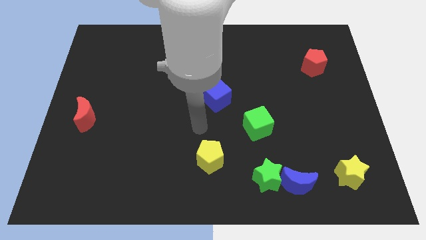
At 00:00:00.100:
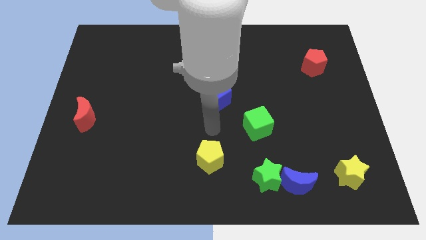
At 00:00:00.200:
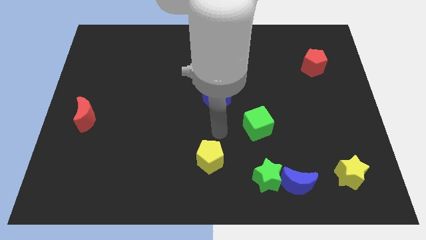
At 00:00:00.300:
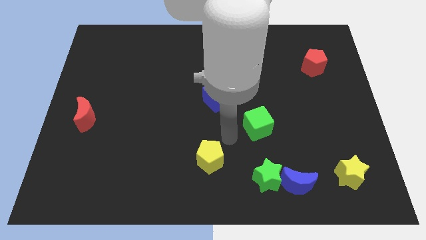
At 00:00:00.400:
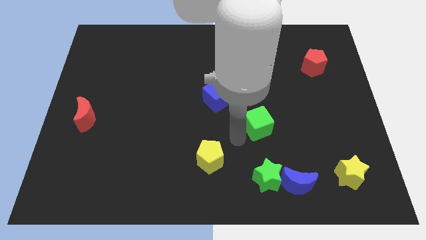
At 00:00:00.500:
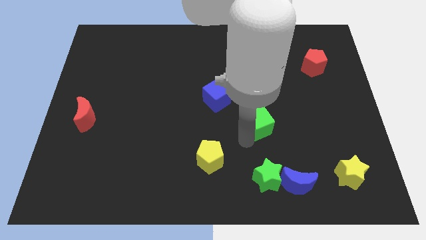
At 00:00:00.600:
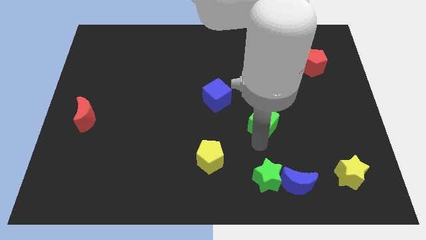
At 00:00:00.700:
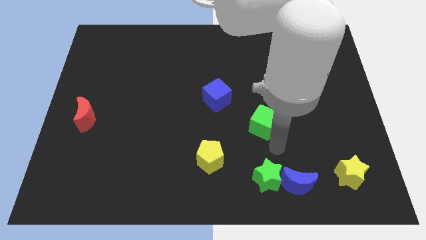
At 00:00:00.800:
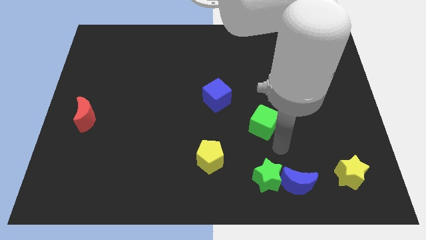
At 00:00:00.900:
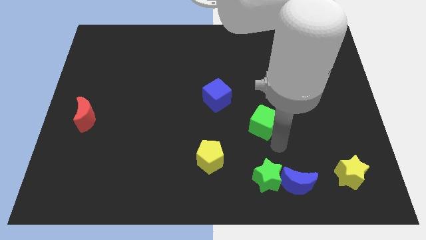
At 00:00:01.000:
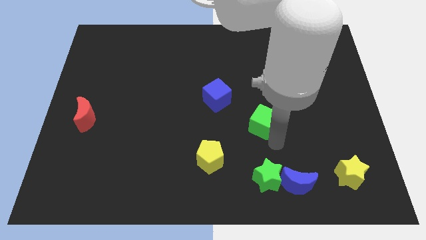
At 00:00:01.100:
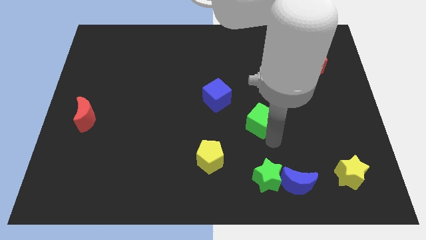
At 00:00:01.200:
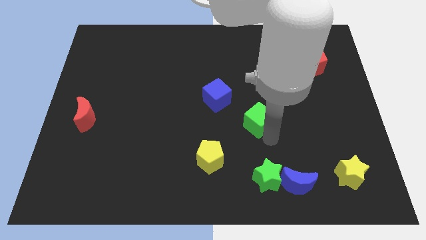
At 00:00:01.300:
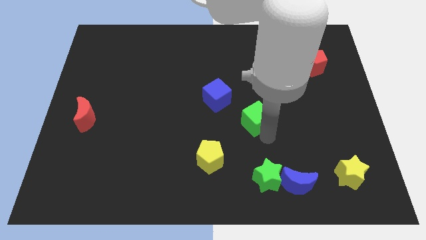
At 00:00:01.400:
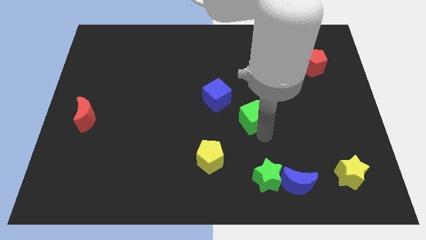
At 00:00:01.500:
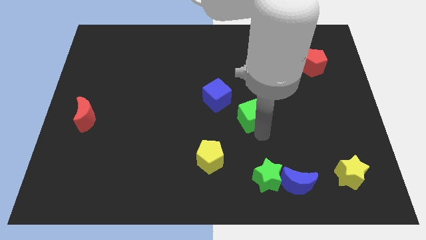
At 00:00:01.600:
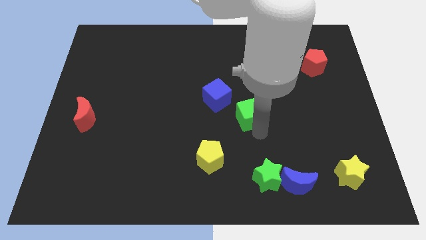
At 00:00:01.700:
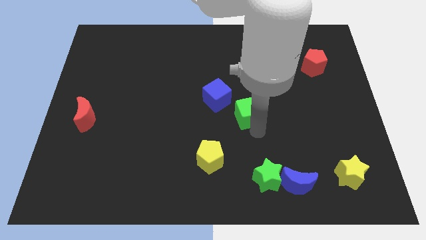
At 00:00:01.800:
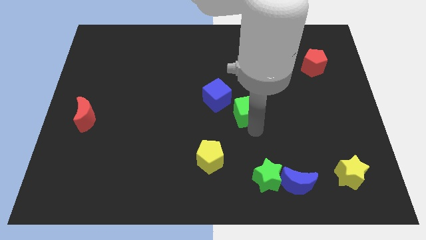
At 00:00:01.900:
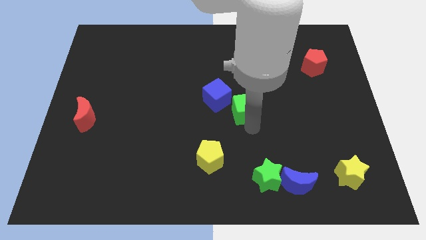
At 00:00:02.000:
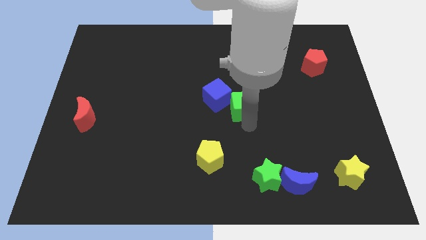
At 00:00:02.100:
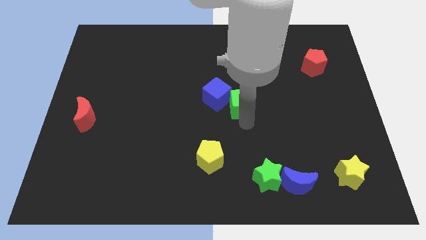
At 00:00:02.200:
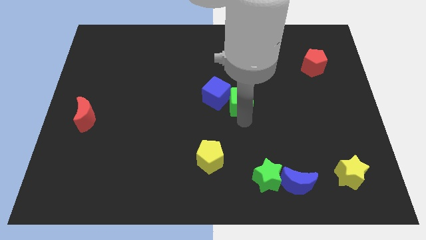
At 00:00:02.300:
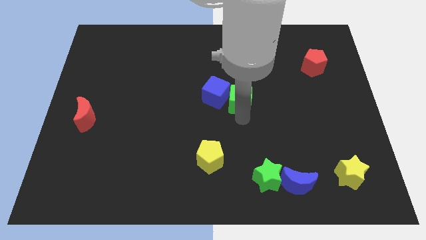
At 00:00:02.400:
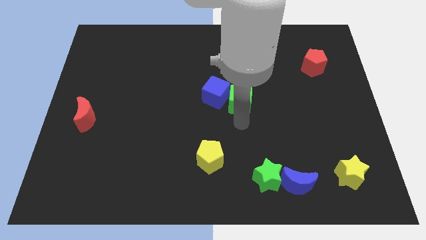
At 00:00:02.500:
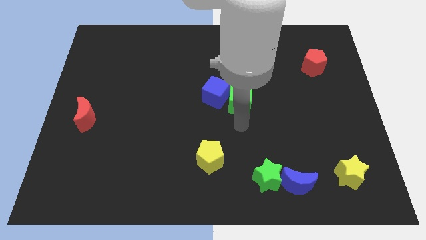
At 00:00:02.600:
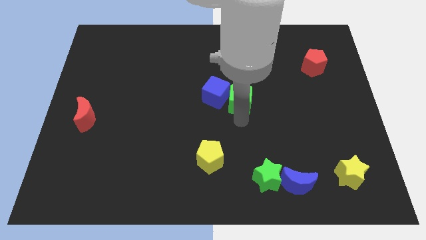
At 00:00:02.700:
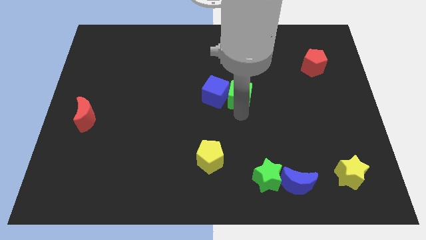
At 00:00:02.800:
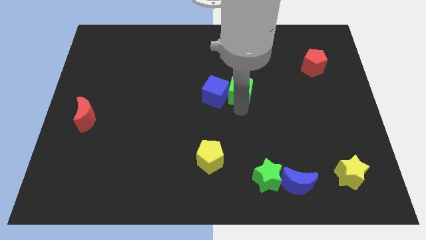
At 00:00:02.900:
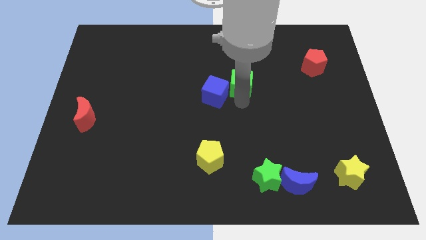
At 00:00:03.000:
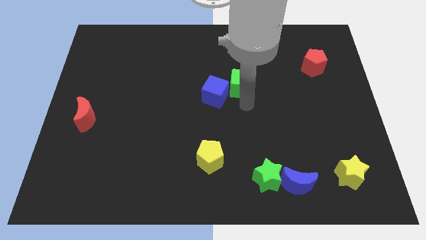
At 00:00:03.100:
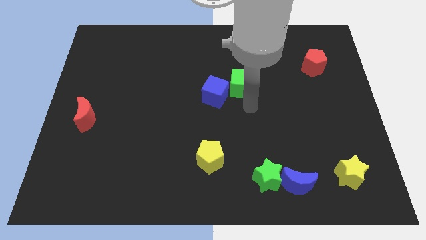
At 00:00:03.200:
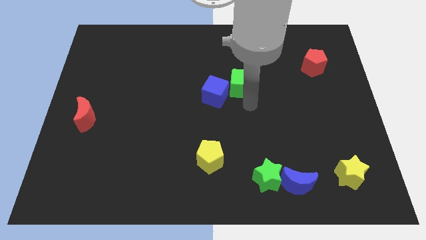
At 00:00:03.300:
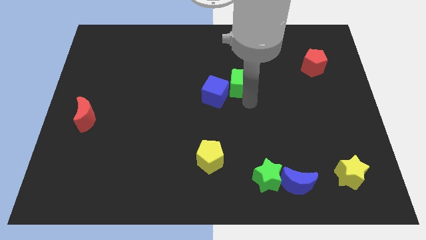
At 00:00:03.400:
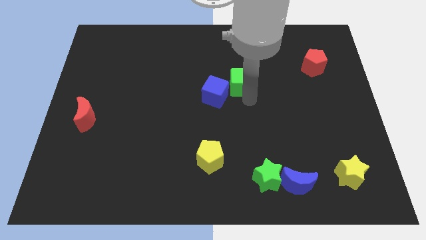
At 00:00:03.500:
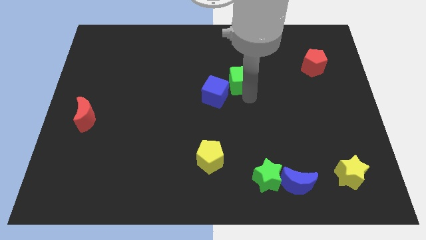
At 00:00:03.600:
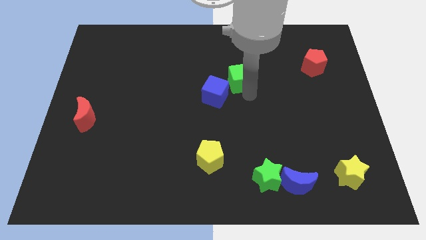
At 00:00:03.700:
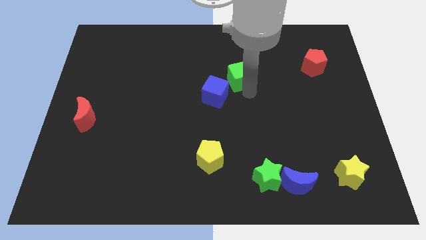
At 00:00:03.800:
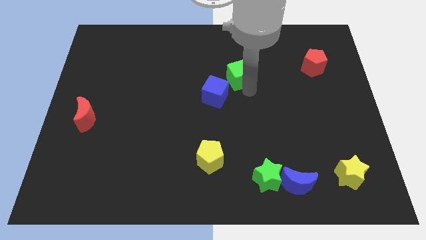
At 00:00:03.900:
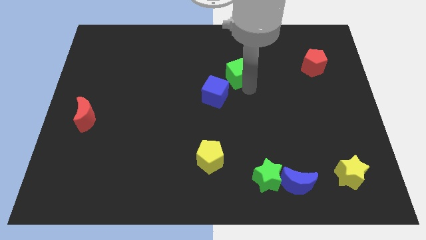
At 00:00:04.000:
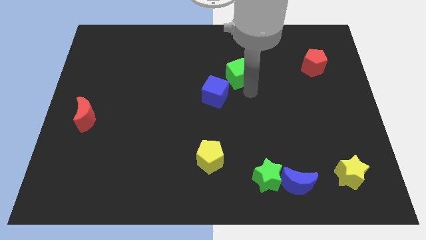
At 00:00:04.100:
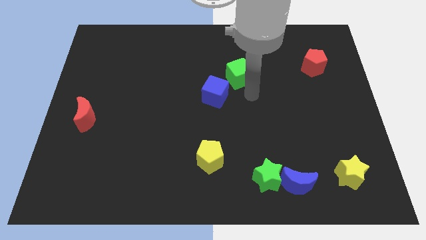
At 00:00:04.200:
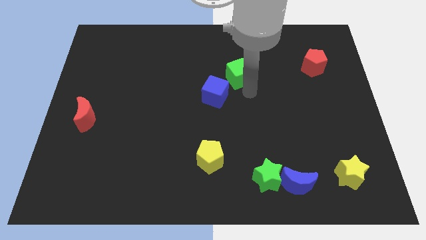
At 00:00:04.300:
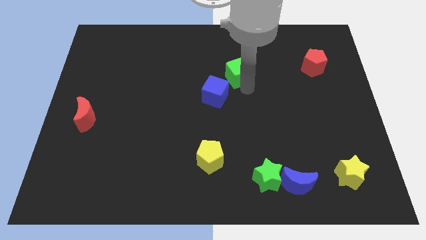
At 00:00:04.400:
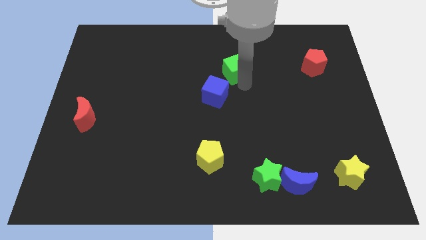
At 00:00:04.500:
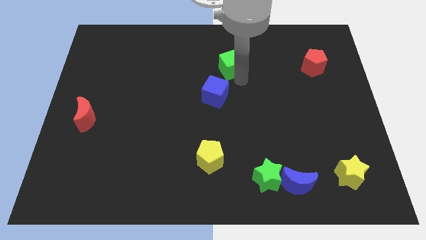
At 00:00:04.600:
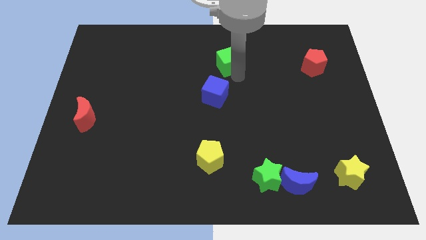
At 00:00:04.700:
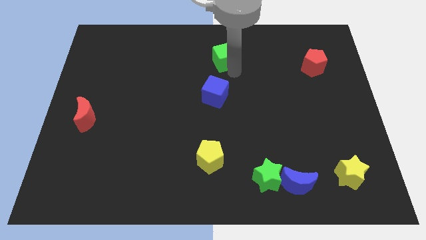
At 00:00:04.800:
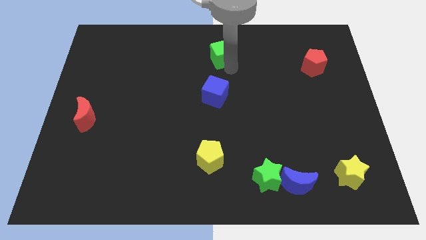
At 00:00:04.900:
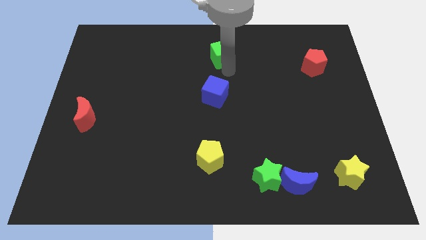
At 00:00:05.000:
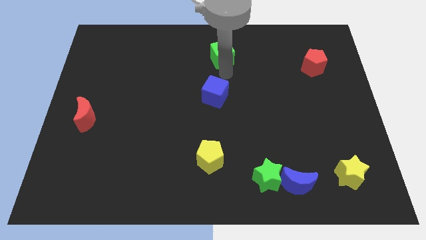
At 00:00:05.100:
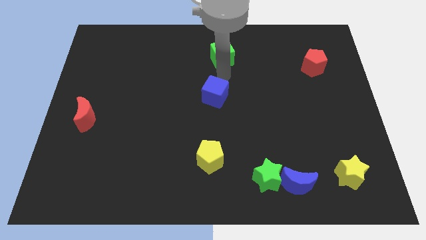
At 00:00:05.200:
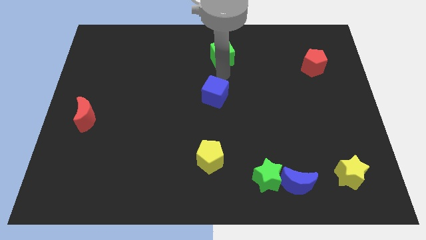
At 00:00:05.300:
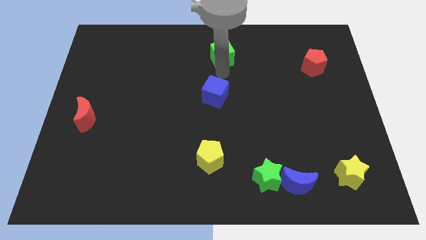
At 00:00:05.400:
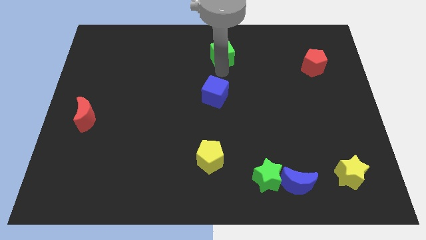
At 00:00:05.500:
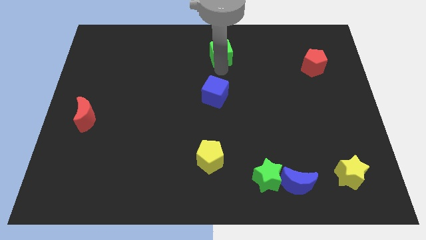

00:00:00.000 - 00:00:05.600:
slide the green cube to the top side

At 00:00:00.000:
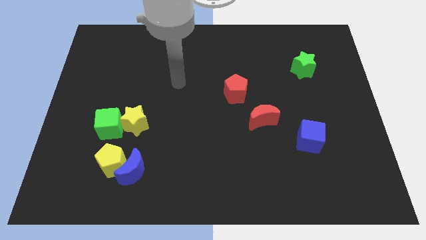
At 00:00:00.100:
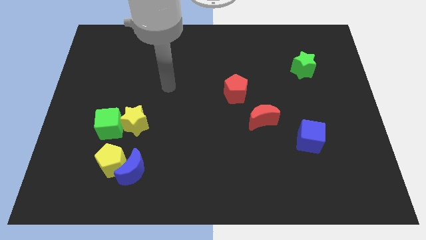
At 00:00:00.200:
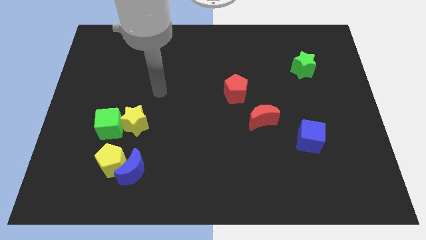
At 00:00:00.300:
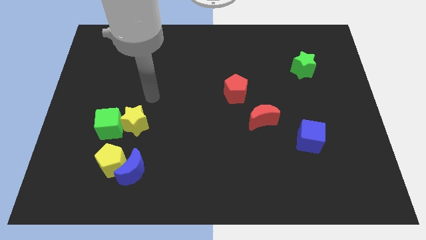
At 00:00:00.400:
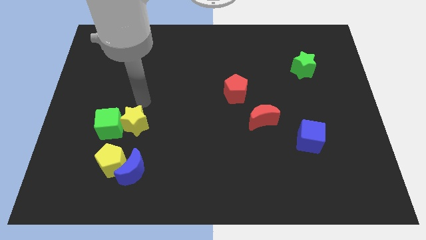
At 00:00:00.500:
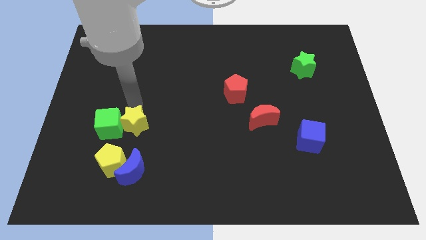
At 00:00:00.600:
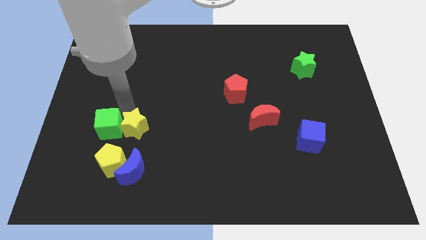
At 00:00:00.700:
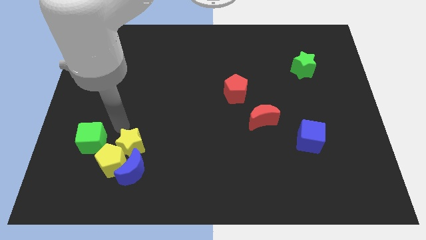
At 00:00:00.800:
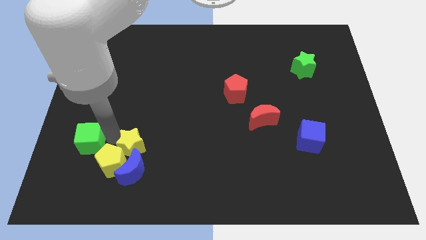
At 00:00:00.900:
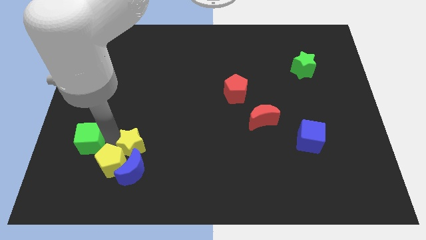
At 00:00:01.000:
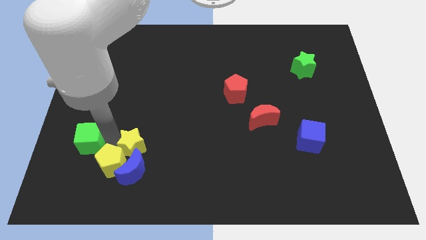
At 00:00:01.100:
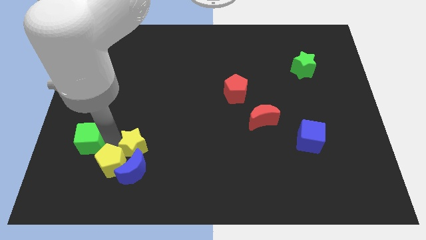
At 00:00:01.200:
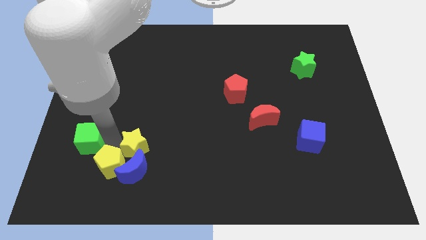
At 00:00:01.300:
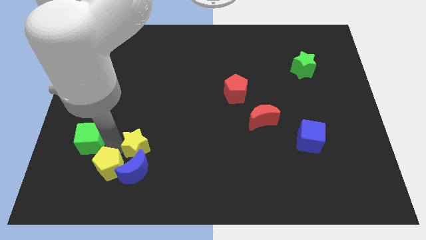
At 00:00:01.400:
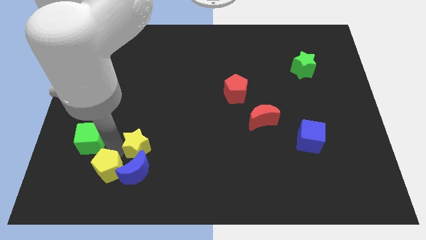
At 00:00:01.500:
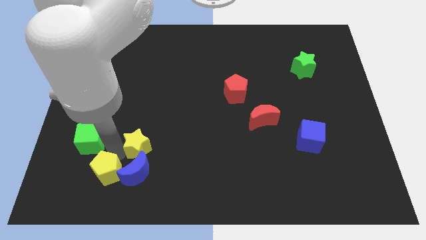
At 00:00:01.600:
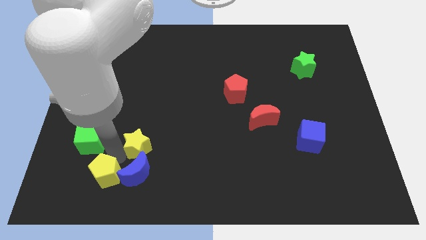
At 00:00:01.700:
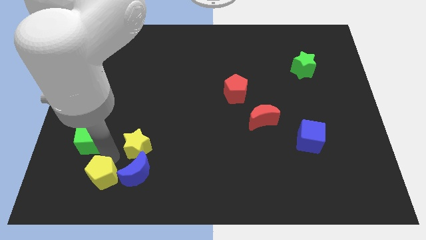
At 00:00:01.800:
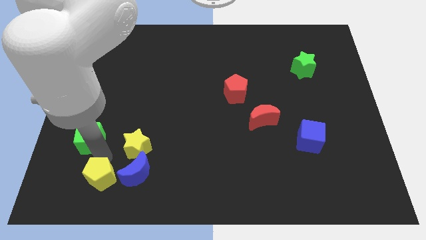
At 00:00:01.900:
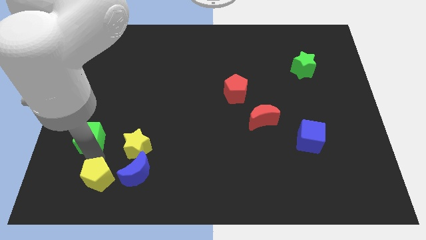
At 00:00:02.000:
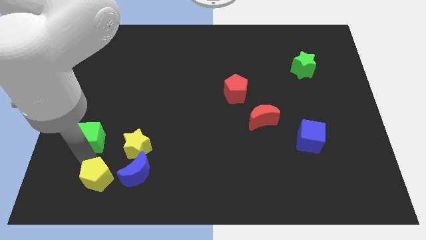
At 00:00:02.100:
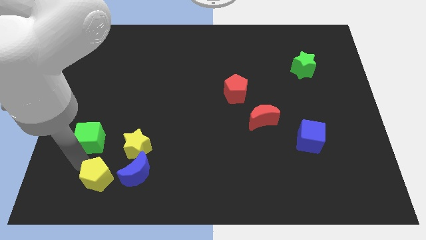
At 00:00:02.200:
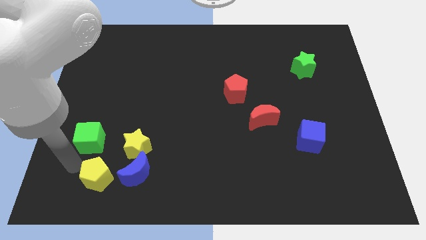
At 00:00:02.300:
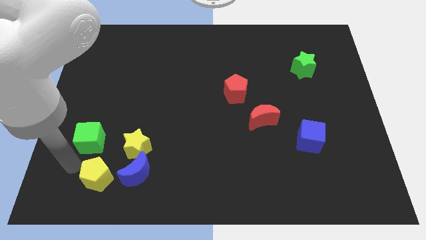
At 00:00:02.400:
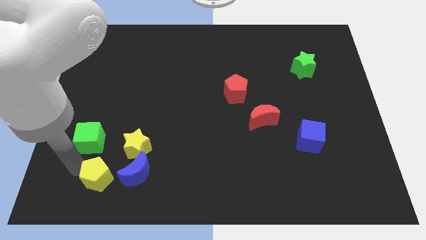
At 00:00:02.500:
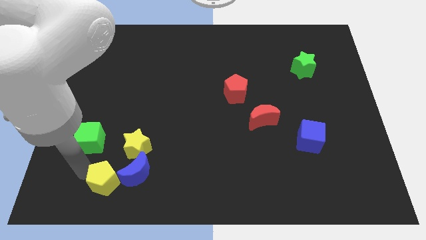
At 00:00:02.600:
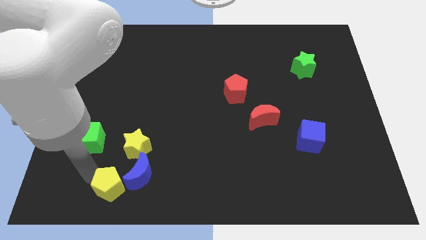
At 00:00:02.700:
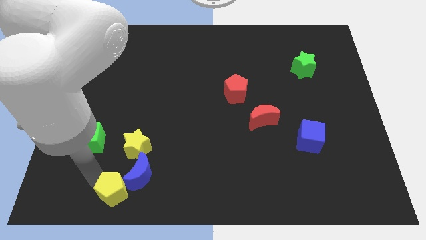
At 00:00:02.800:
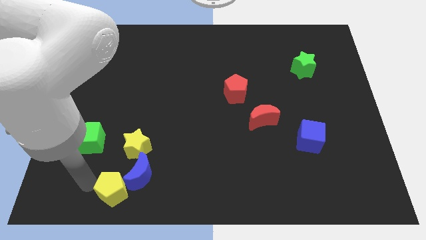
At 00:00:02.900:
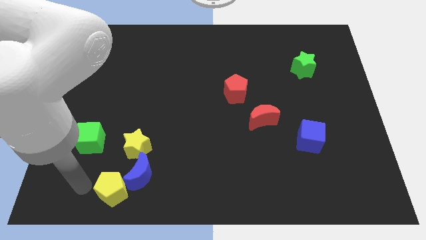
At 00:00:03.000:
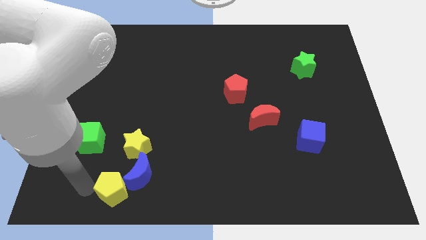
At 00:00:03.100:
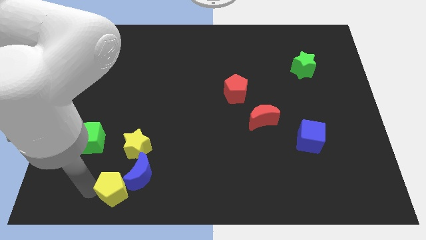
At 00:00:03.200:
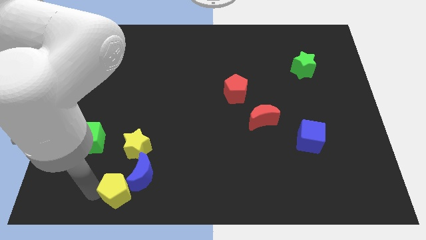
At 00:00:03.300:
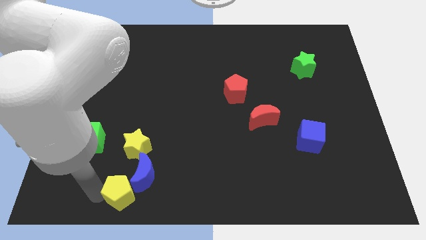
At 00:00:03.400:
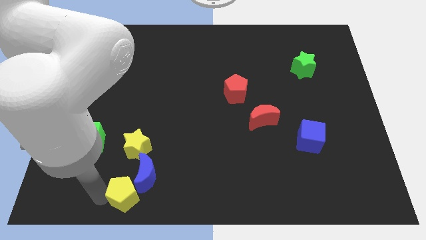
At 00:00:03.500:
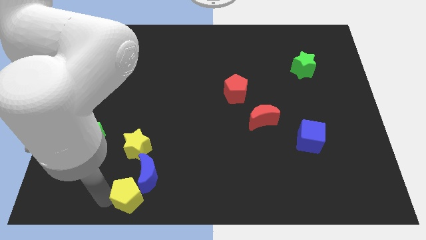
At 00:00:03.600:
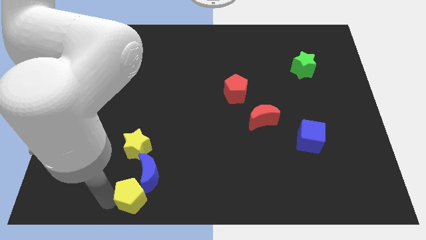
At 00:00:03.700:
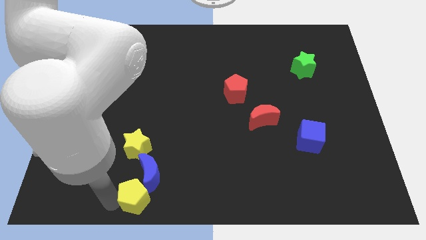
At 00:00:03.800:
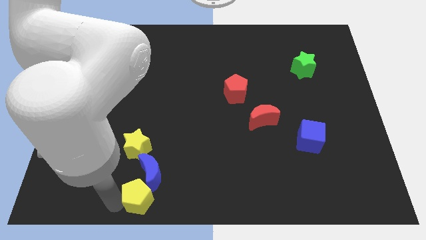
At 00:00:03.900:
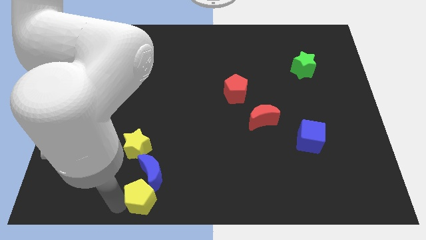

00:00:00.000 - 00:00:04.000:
push the yellow pentagon to the bottom side
